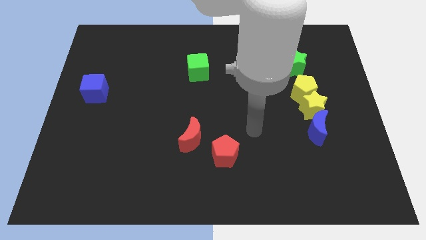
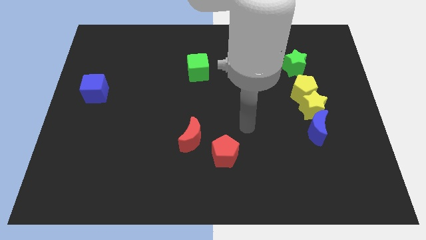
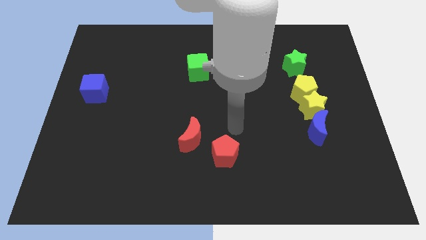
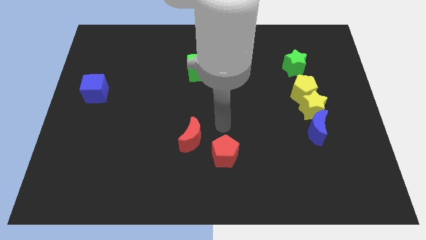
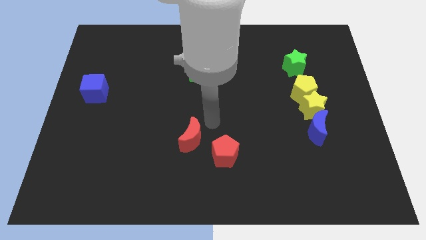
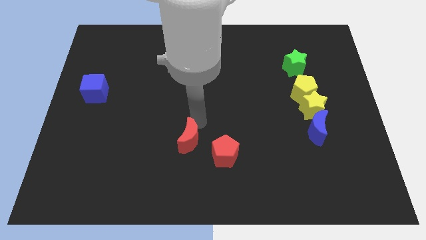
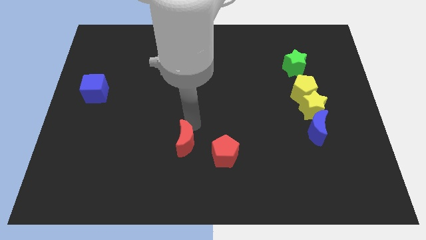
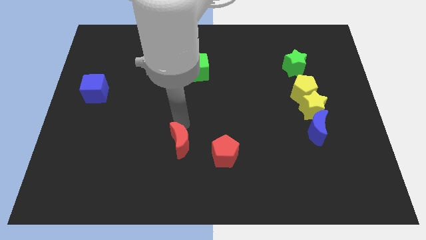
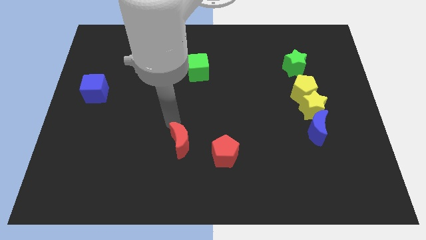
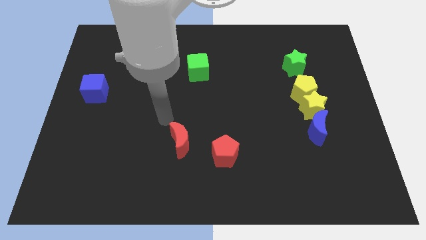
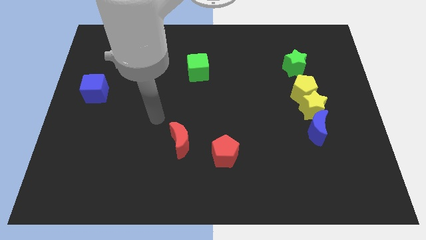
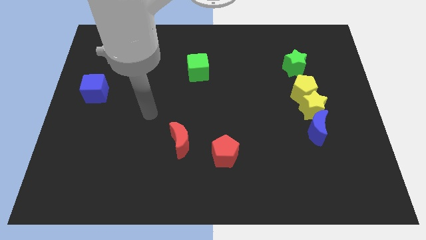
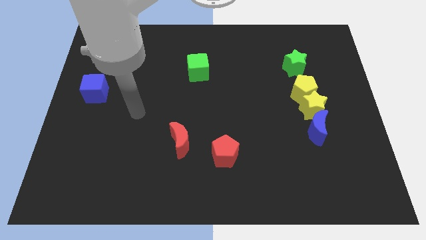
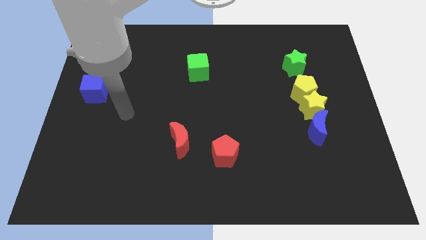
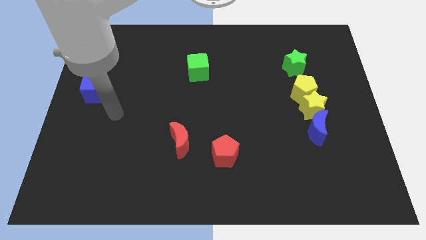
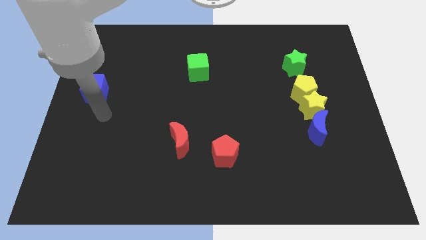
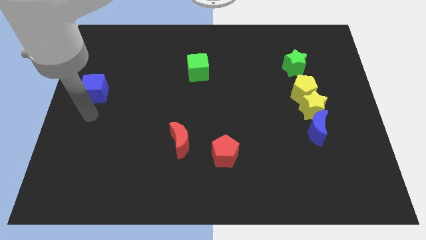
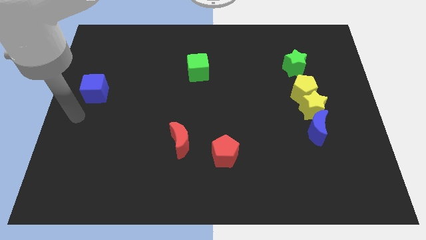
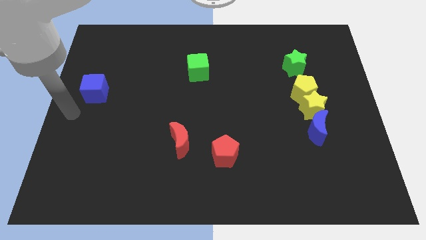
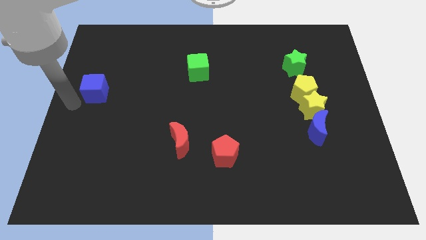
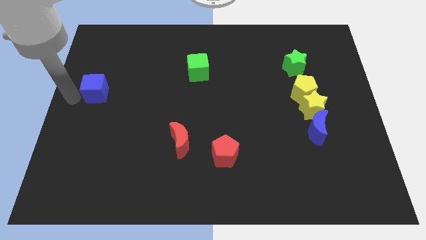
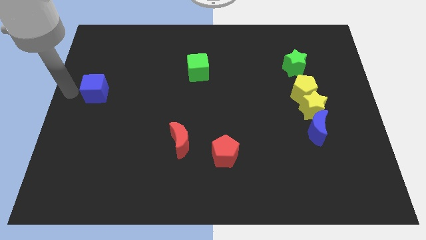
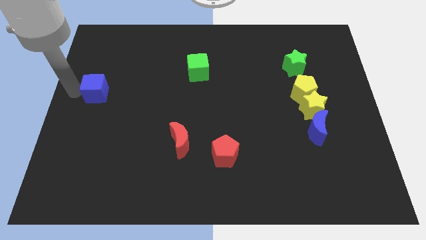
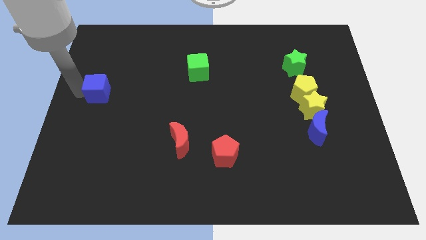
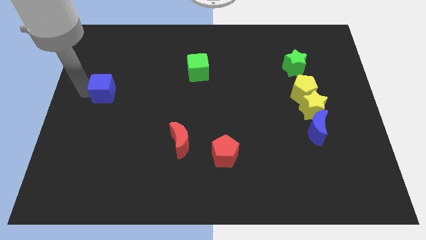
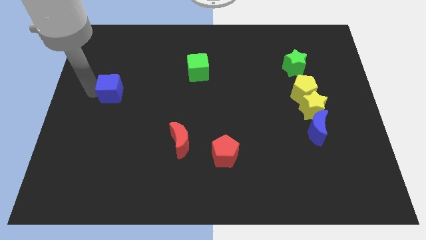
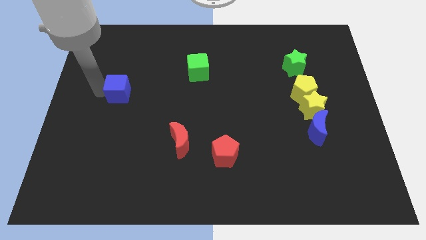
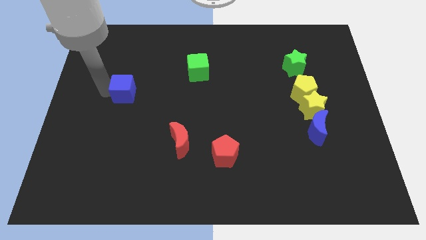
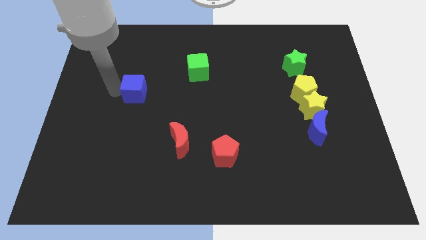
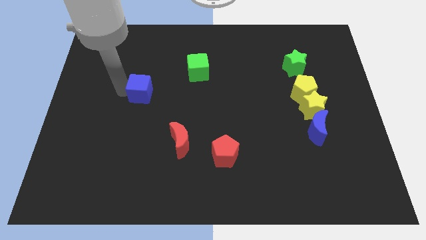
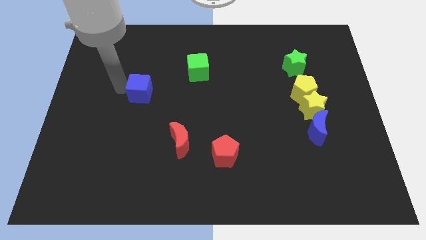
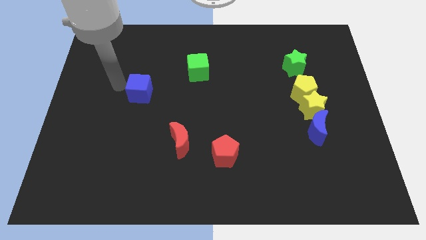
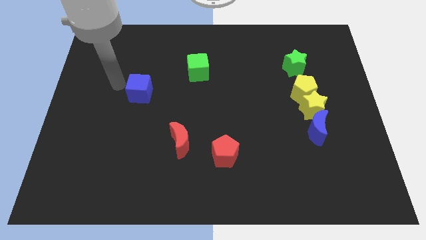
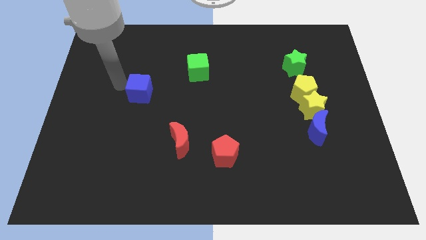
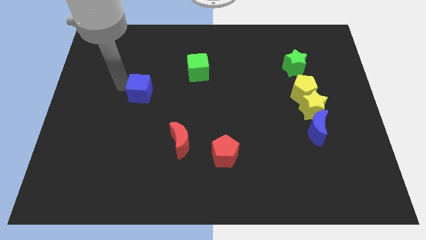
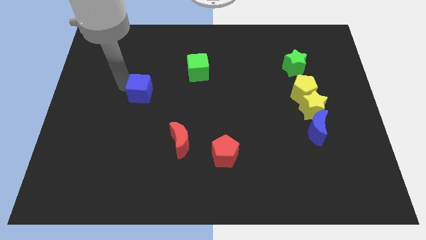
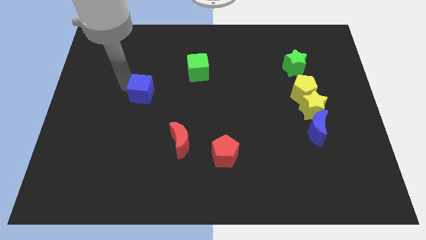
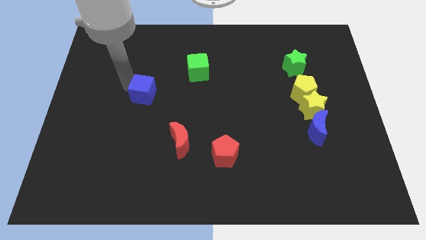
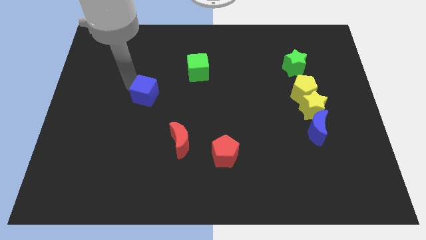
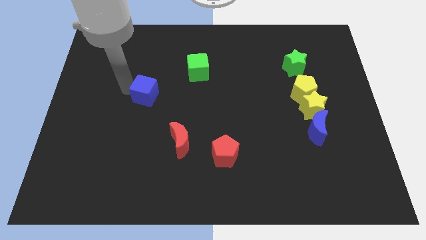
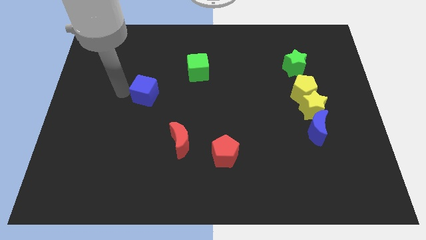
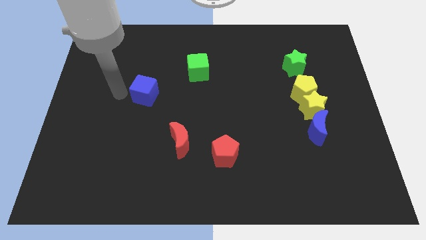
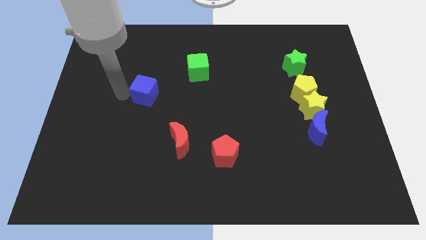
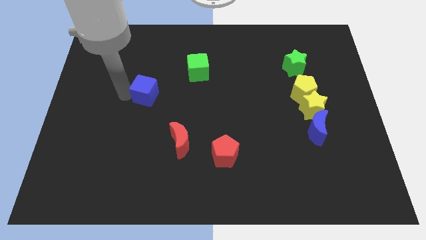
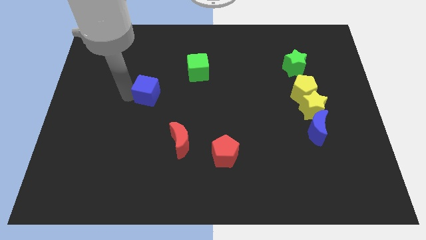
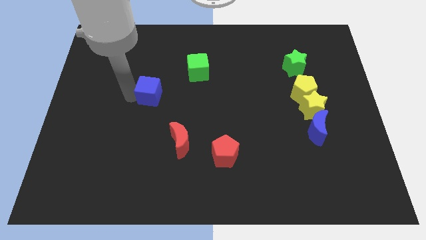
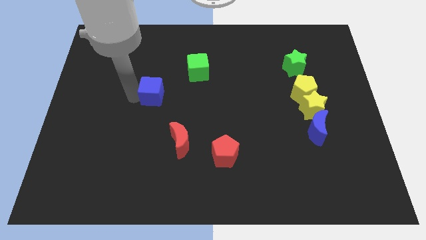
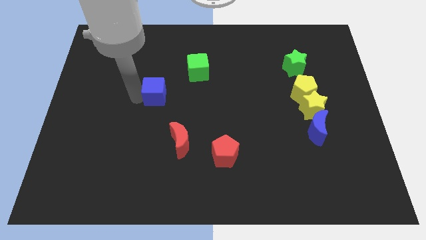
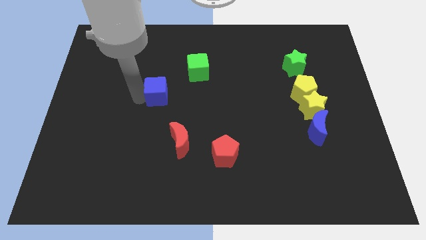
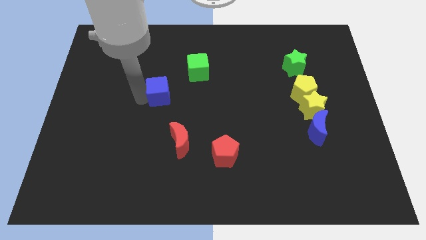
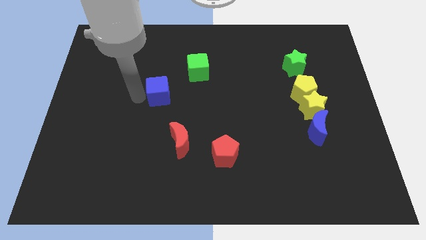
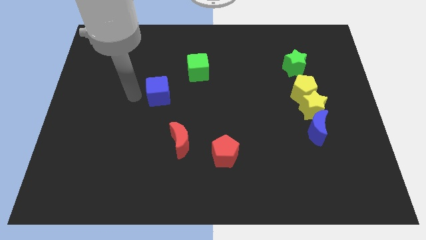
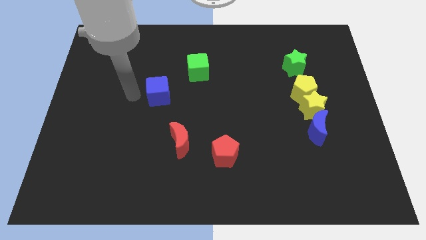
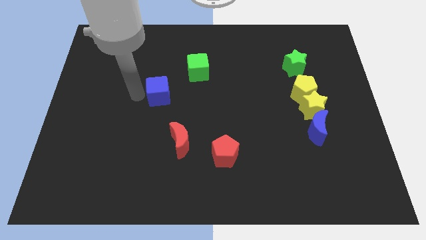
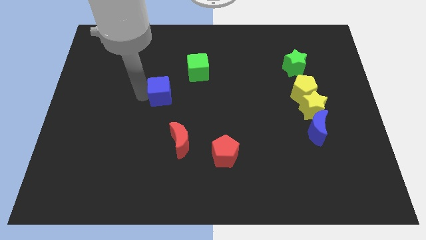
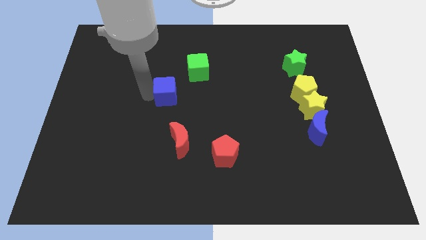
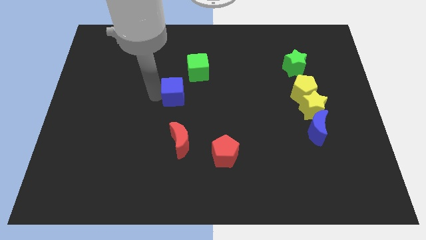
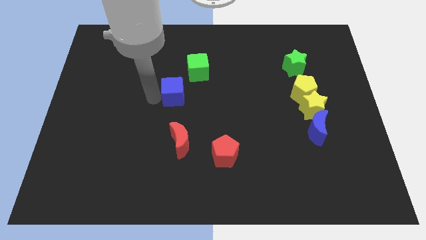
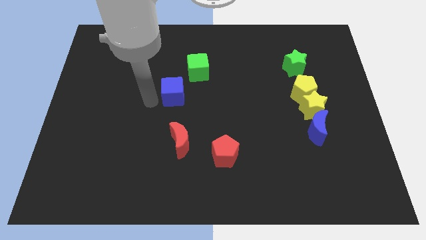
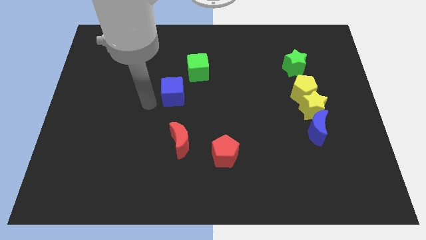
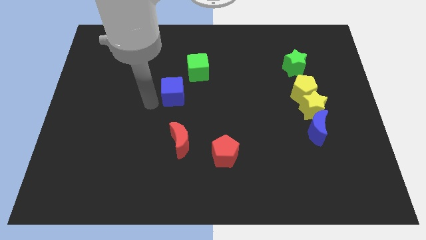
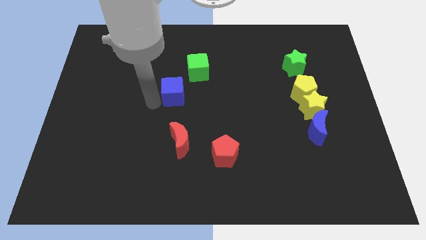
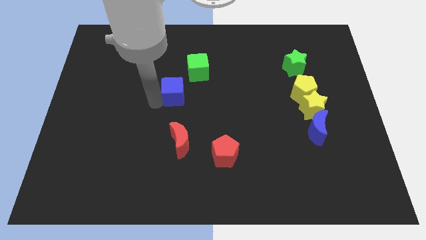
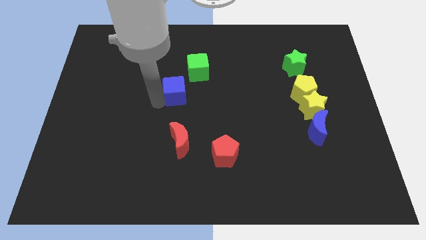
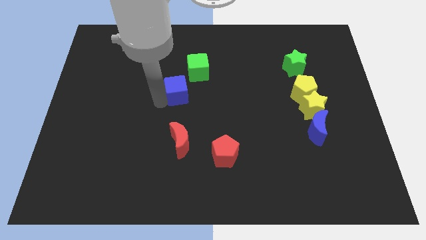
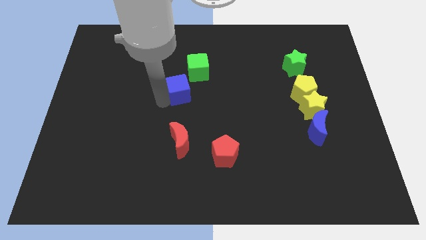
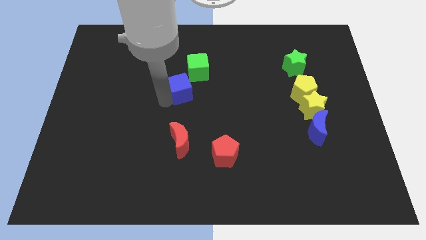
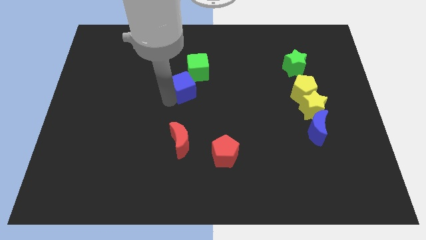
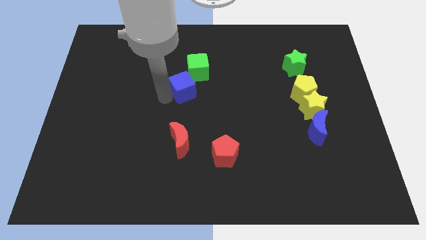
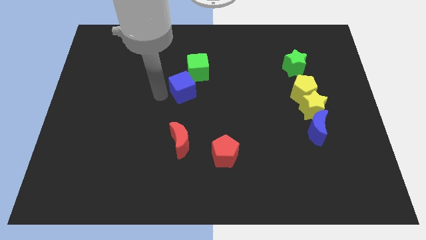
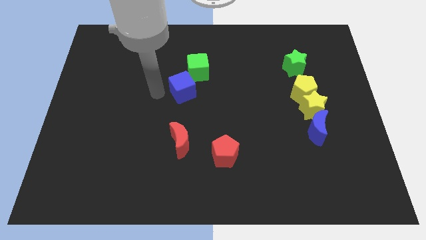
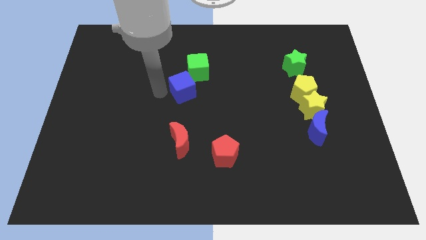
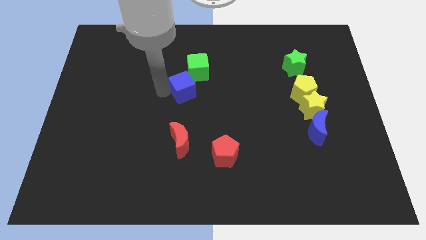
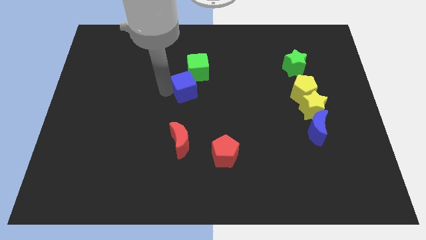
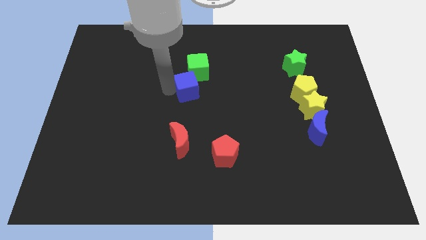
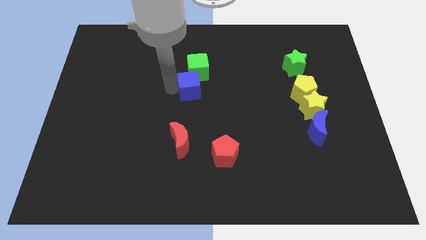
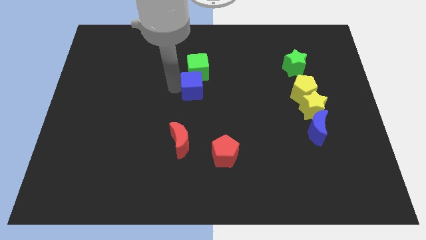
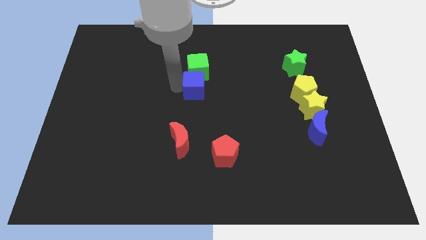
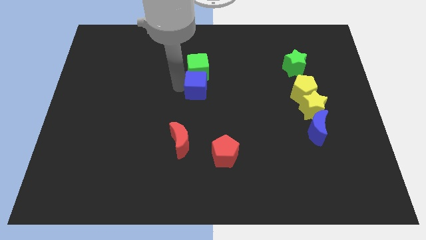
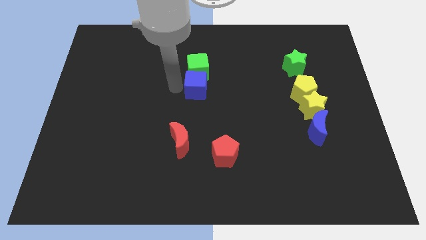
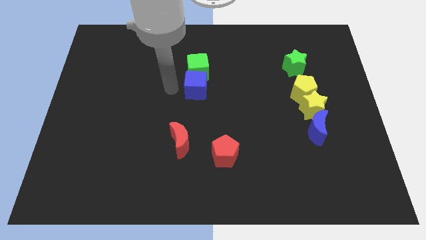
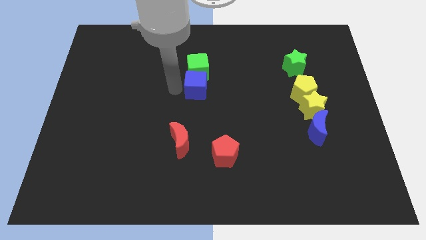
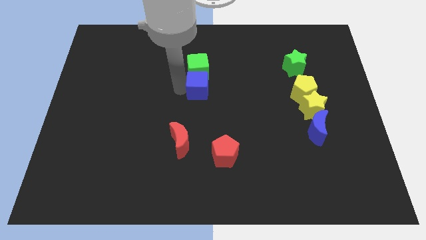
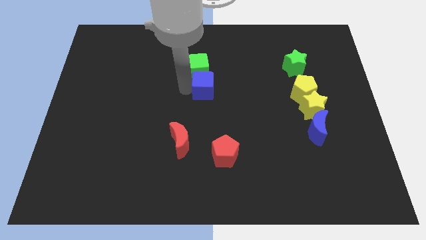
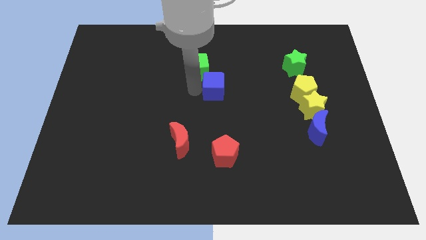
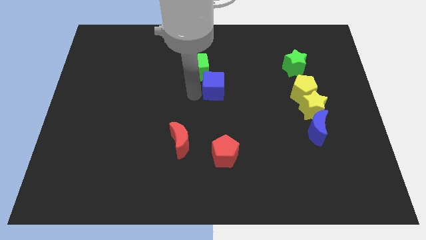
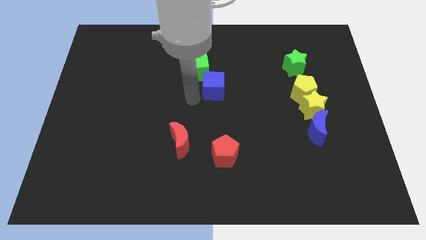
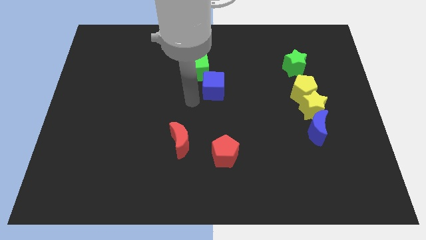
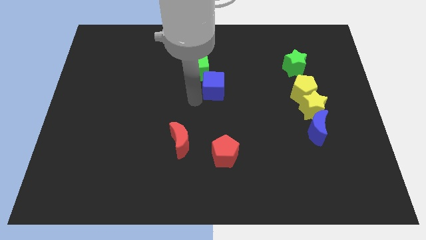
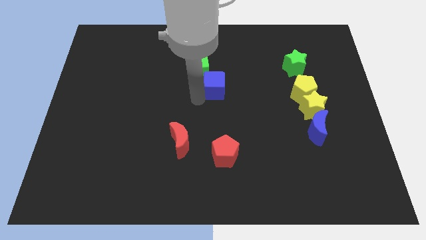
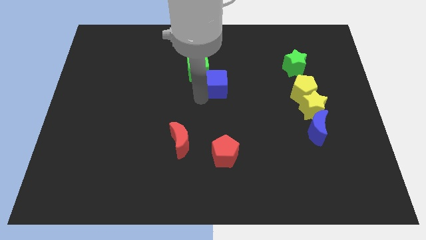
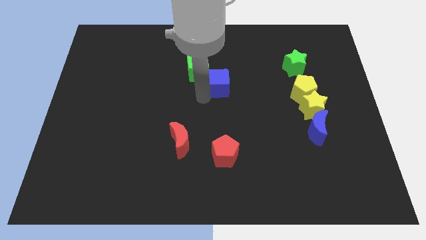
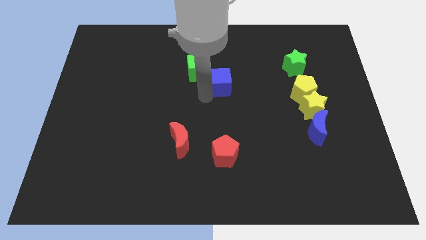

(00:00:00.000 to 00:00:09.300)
put the blue cube right of the green cube
